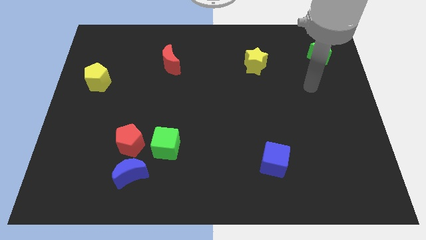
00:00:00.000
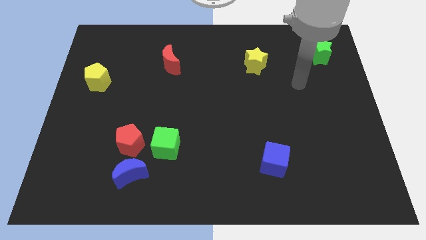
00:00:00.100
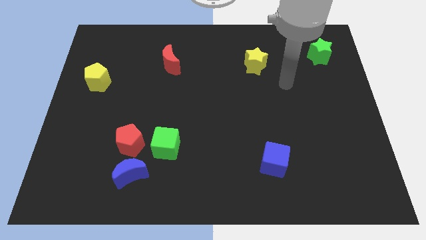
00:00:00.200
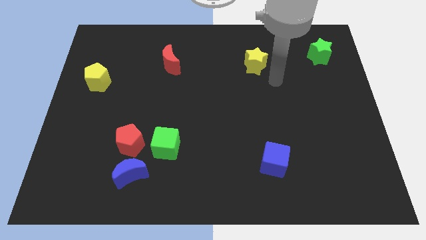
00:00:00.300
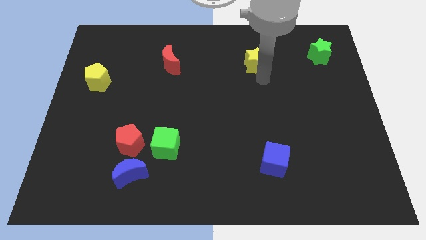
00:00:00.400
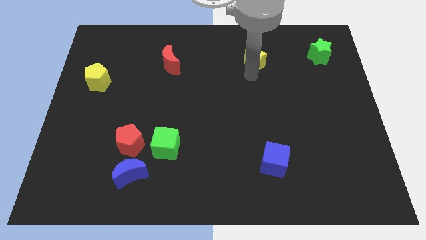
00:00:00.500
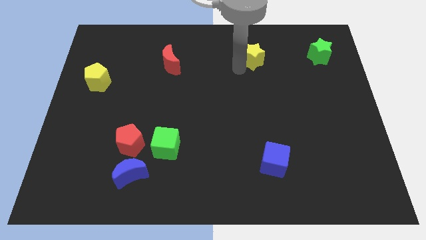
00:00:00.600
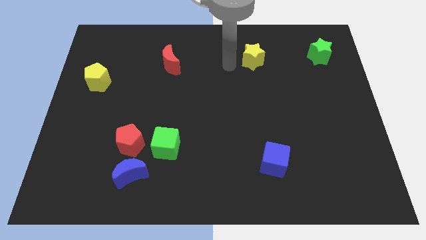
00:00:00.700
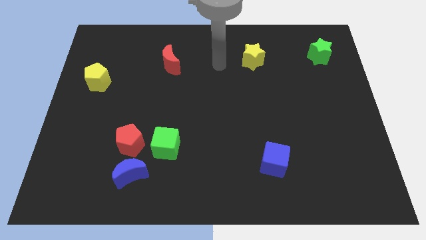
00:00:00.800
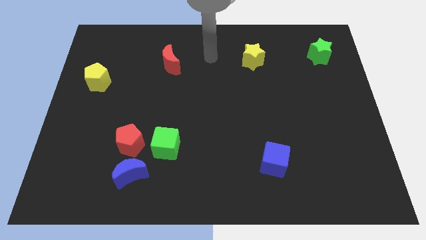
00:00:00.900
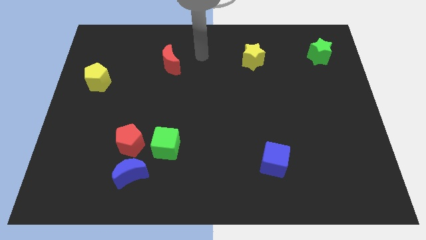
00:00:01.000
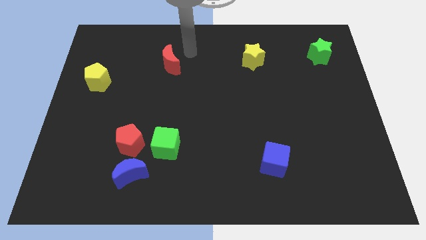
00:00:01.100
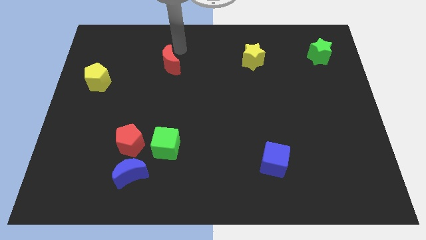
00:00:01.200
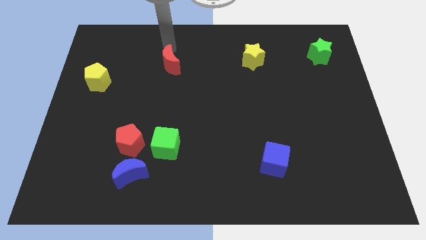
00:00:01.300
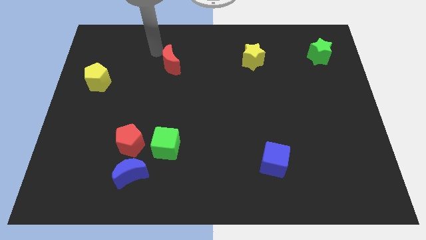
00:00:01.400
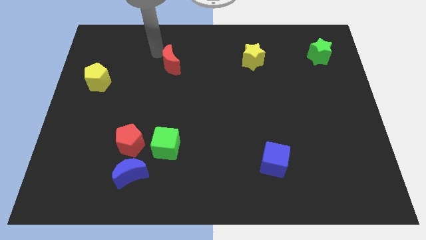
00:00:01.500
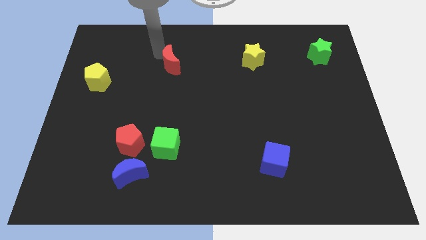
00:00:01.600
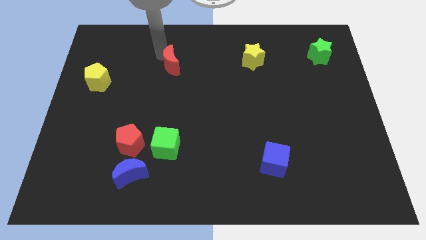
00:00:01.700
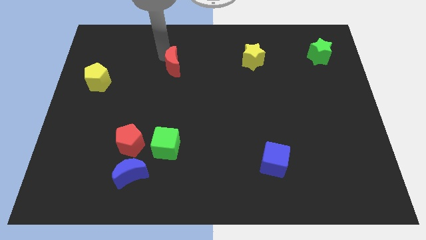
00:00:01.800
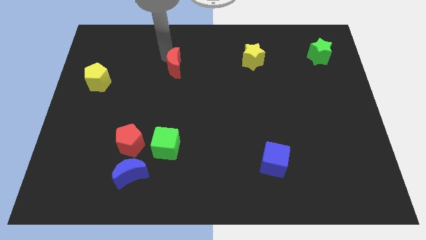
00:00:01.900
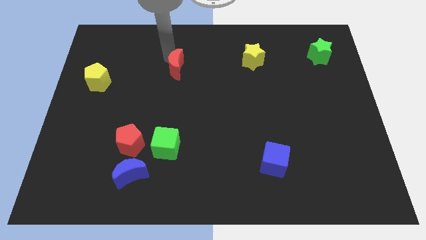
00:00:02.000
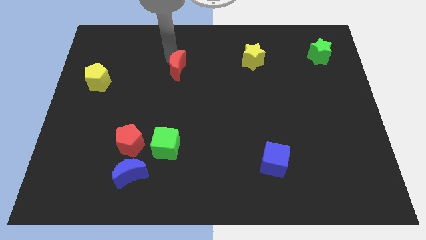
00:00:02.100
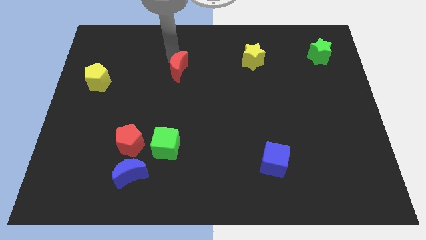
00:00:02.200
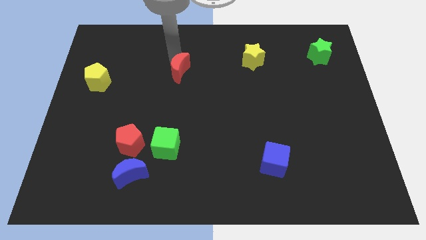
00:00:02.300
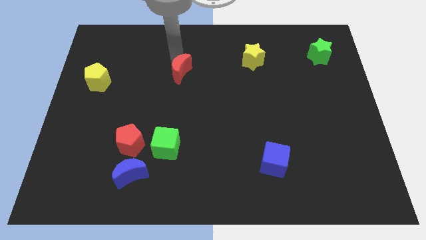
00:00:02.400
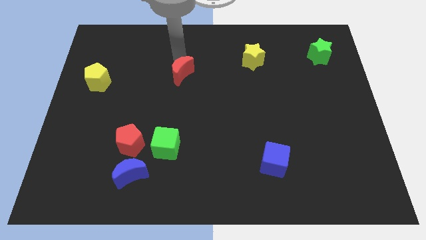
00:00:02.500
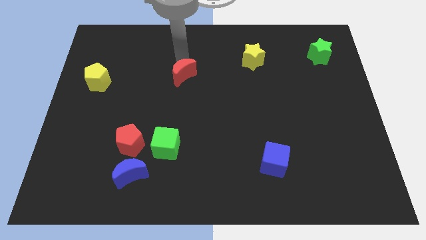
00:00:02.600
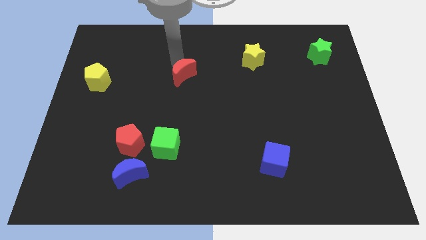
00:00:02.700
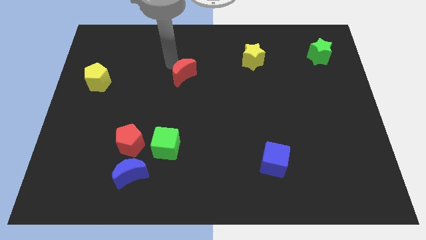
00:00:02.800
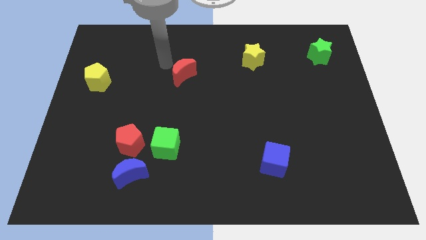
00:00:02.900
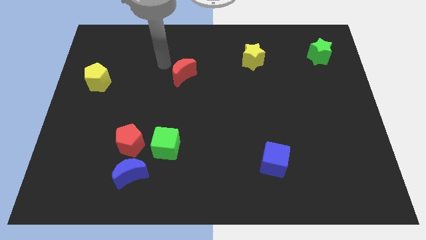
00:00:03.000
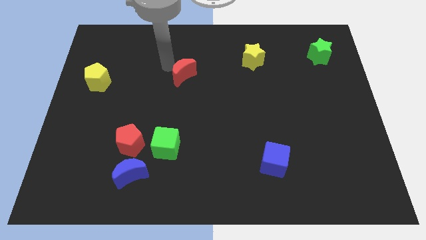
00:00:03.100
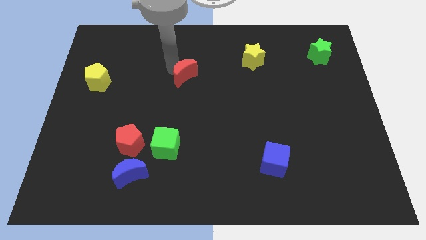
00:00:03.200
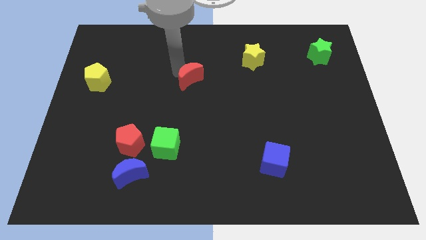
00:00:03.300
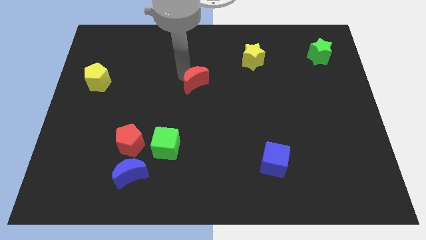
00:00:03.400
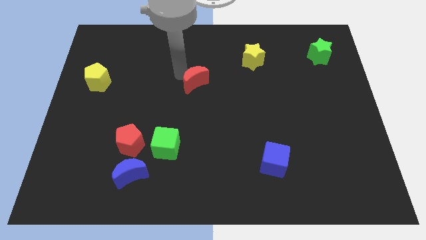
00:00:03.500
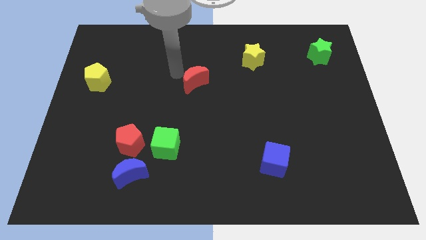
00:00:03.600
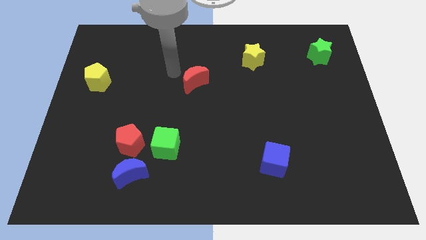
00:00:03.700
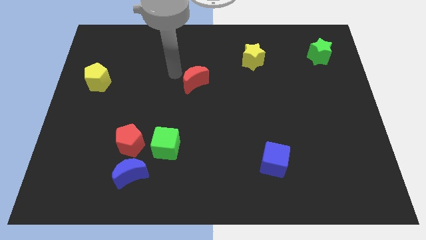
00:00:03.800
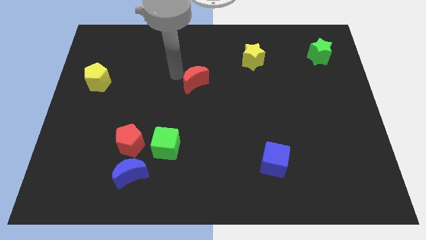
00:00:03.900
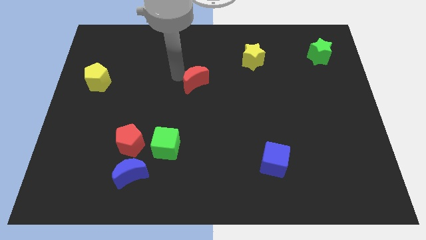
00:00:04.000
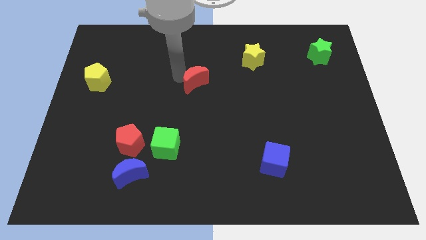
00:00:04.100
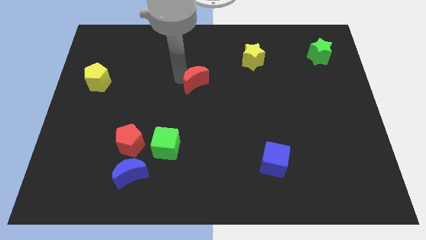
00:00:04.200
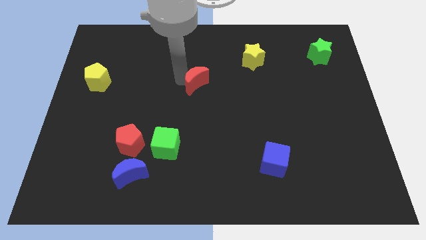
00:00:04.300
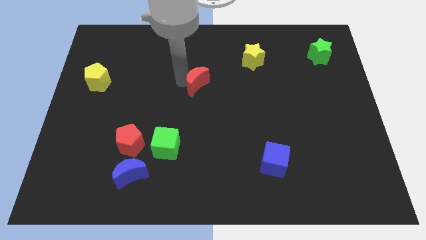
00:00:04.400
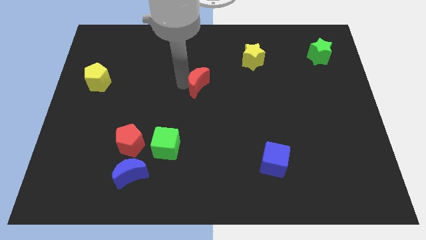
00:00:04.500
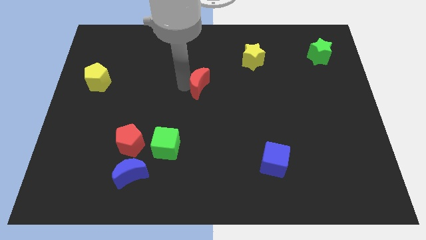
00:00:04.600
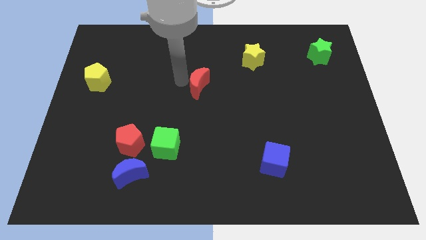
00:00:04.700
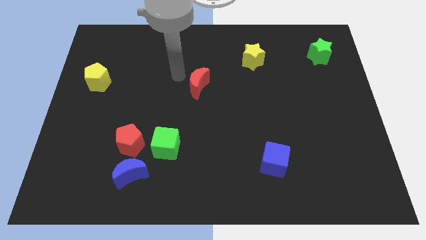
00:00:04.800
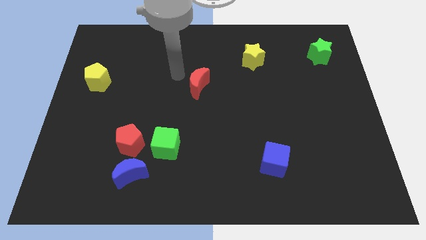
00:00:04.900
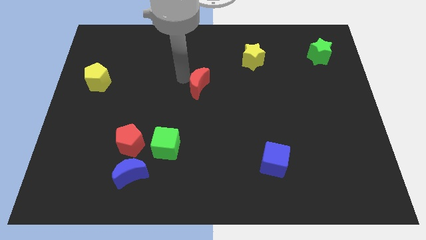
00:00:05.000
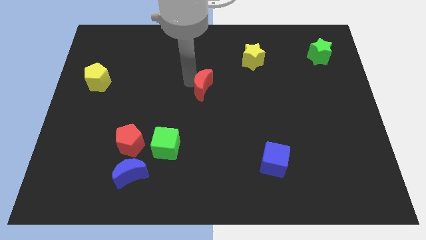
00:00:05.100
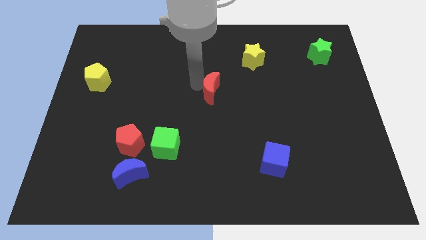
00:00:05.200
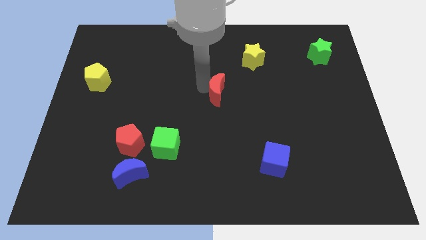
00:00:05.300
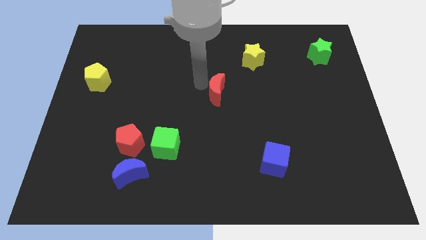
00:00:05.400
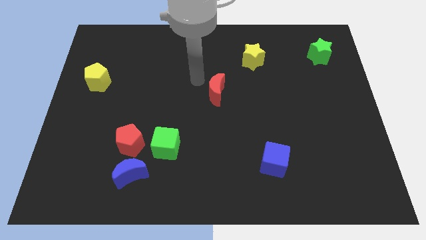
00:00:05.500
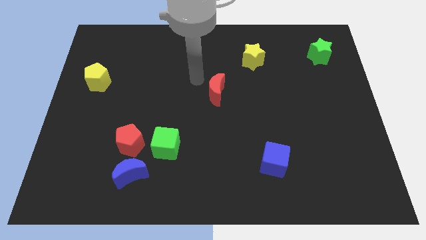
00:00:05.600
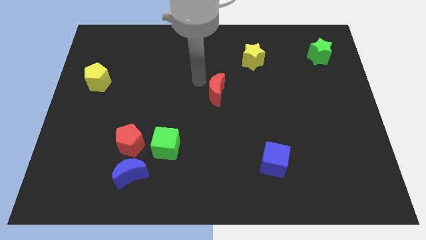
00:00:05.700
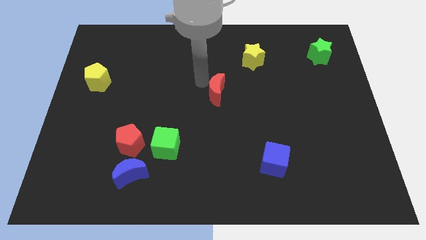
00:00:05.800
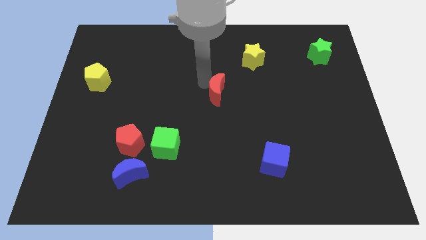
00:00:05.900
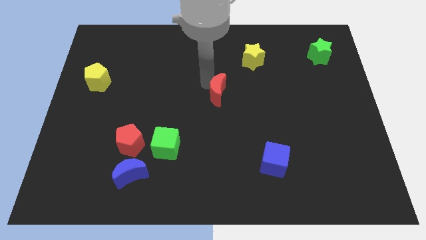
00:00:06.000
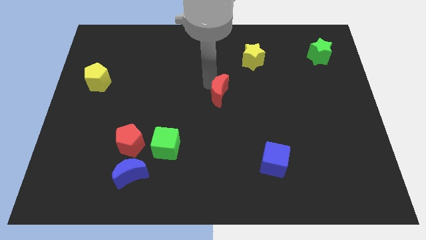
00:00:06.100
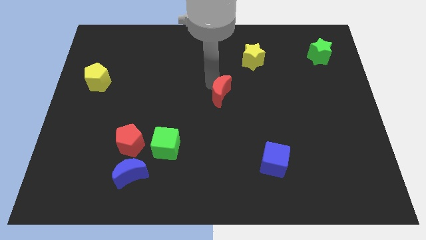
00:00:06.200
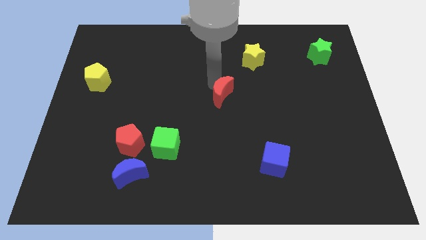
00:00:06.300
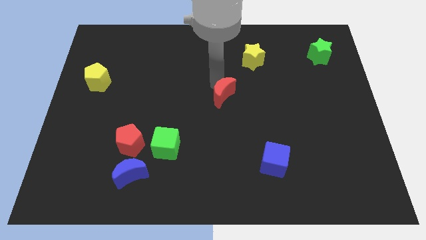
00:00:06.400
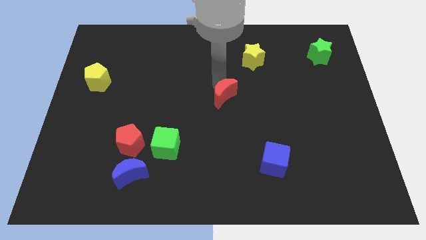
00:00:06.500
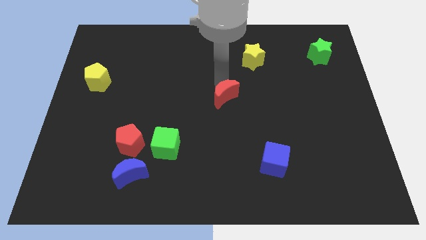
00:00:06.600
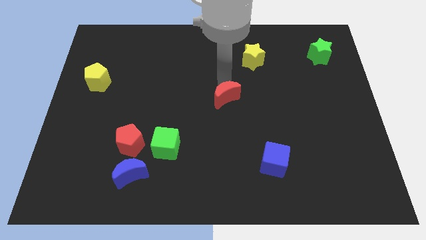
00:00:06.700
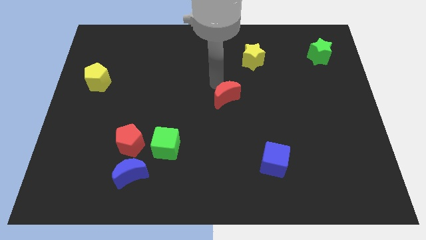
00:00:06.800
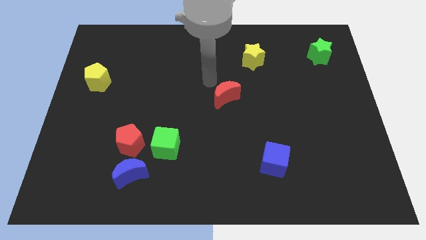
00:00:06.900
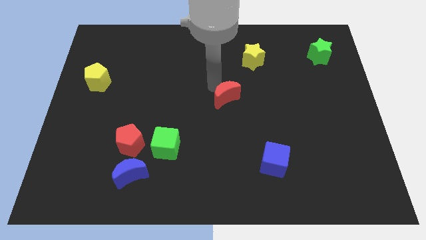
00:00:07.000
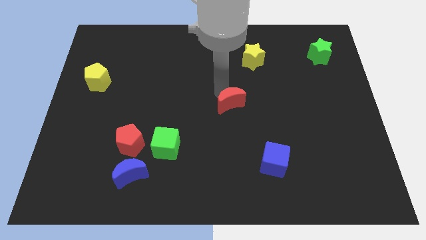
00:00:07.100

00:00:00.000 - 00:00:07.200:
push the red moon downwards and then to the right

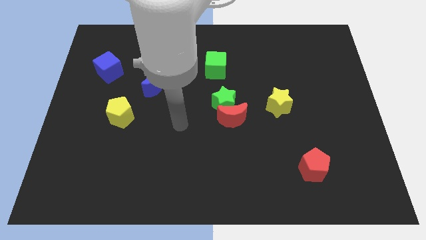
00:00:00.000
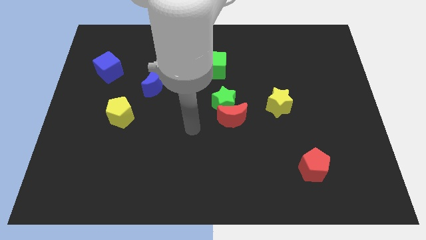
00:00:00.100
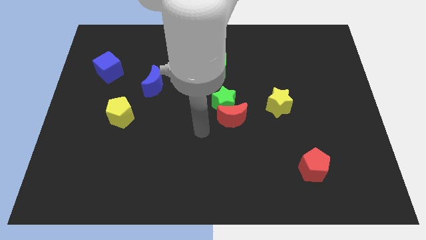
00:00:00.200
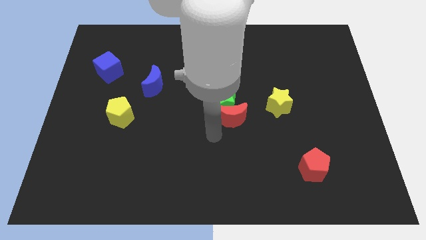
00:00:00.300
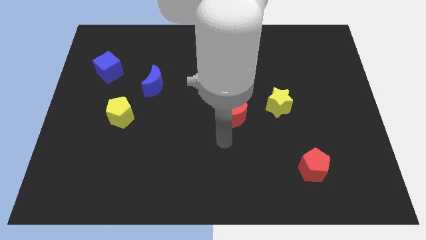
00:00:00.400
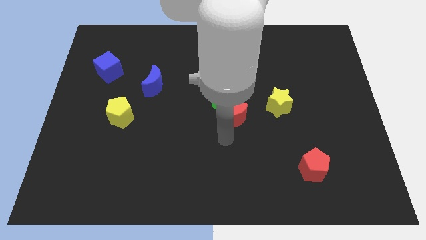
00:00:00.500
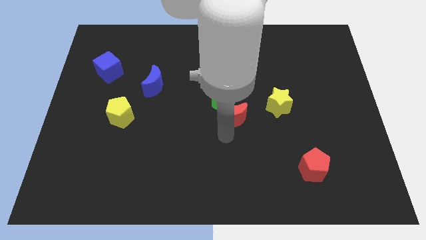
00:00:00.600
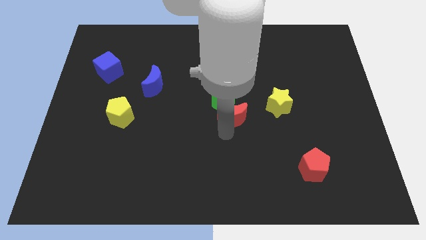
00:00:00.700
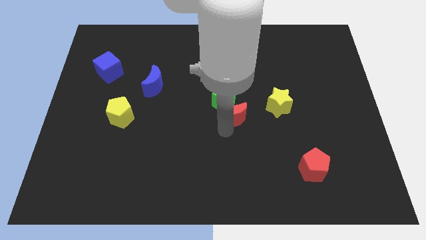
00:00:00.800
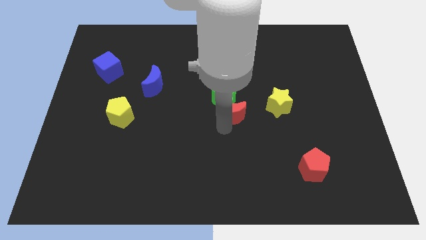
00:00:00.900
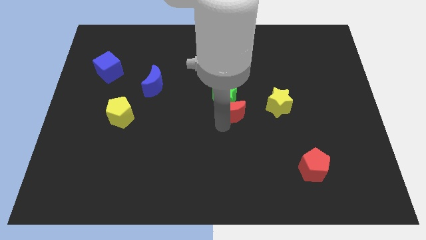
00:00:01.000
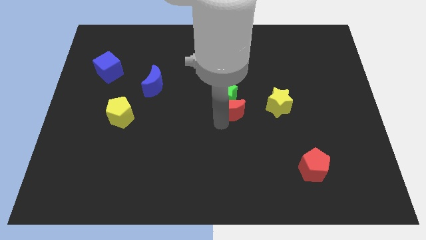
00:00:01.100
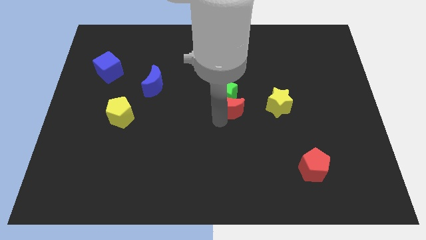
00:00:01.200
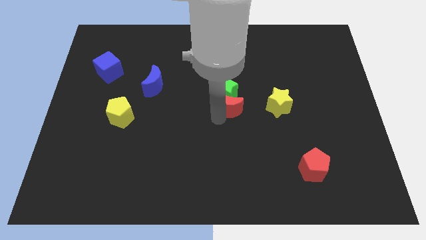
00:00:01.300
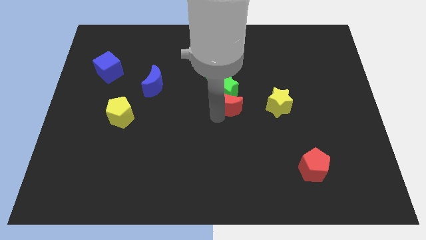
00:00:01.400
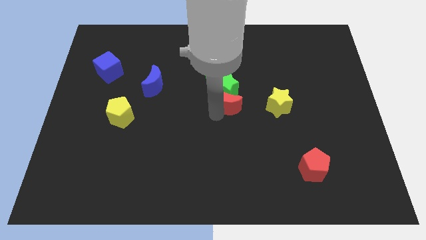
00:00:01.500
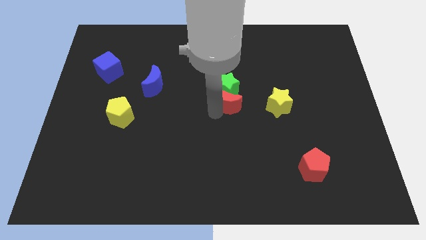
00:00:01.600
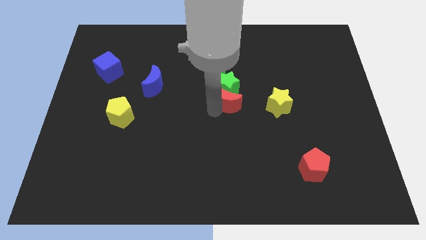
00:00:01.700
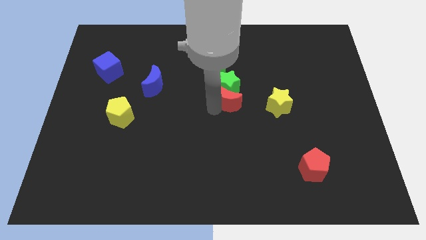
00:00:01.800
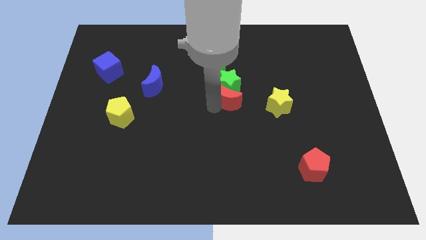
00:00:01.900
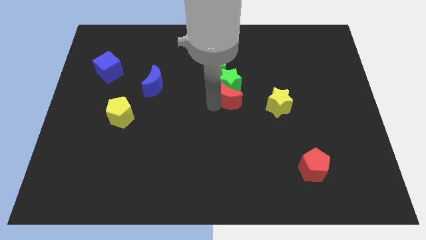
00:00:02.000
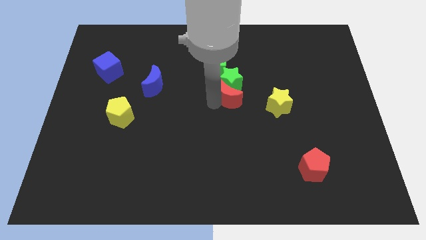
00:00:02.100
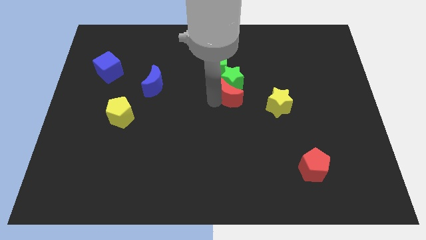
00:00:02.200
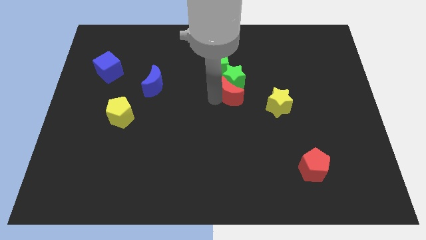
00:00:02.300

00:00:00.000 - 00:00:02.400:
slide the red moon a little bit upwards
